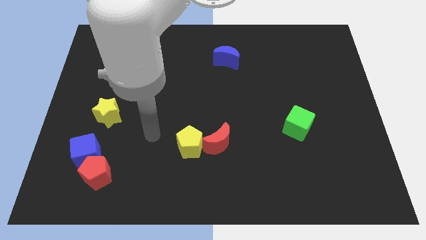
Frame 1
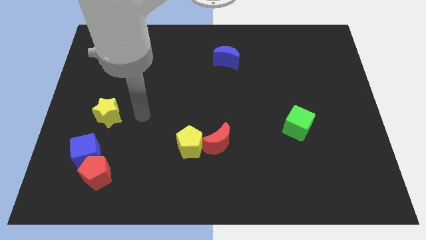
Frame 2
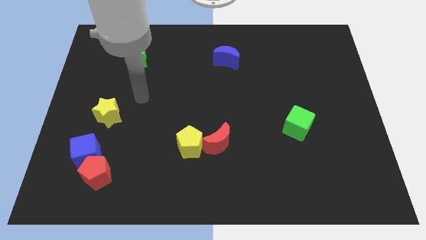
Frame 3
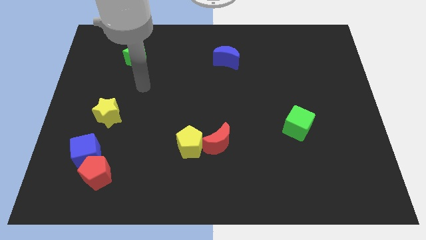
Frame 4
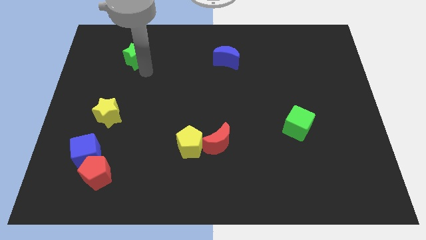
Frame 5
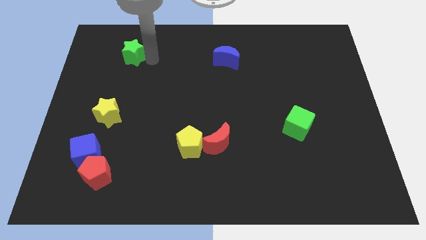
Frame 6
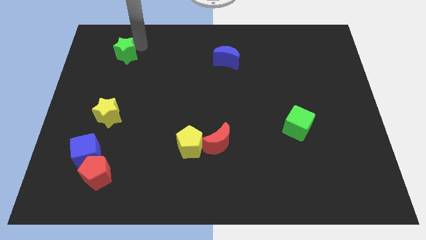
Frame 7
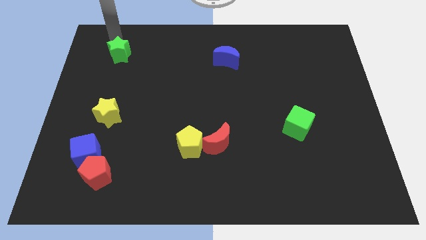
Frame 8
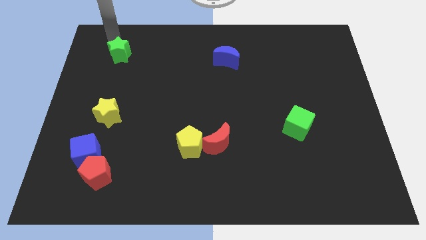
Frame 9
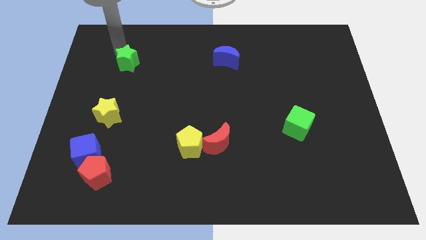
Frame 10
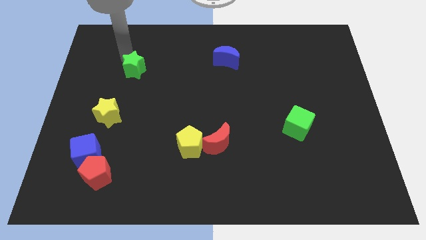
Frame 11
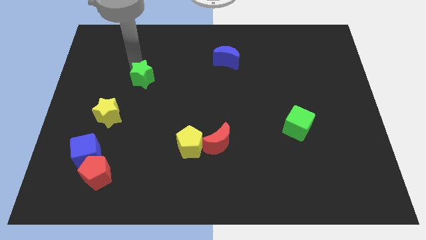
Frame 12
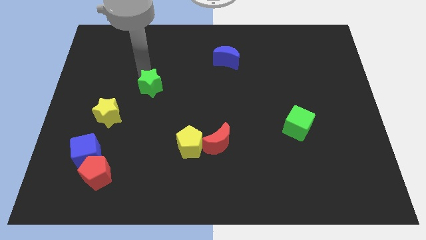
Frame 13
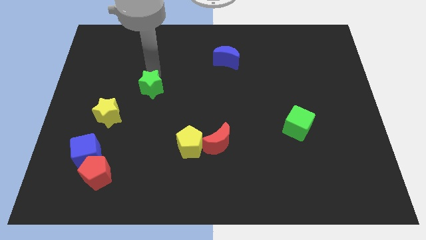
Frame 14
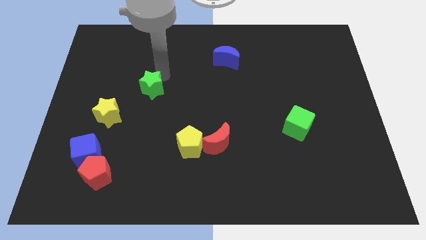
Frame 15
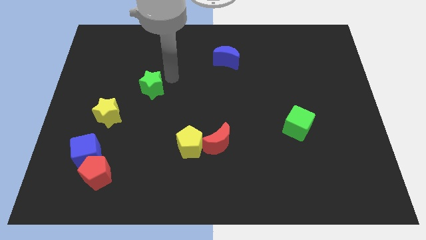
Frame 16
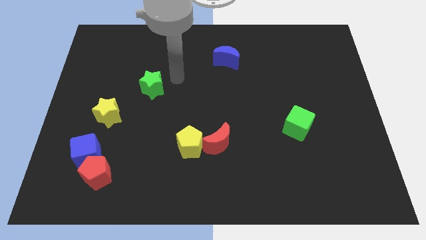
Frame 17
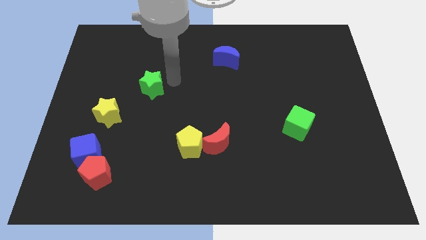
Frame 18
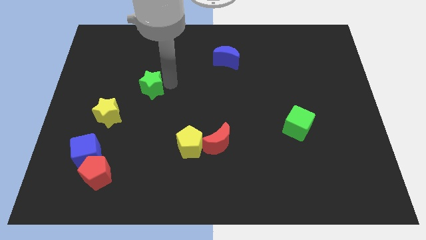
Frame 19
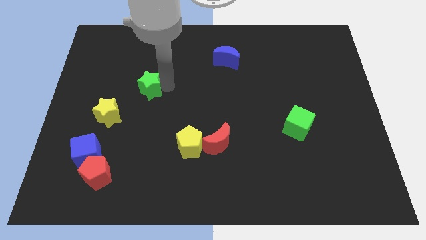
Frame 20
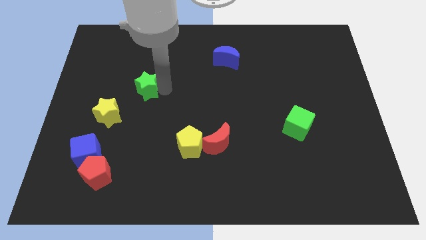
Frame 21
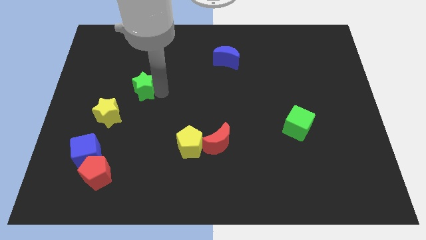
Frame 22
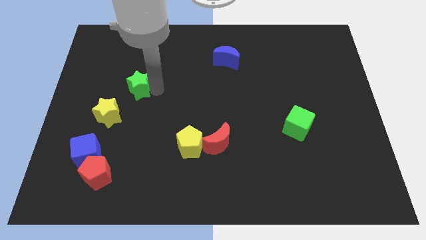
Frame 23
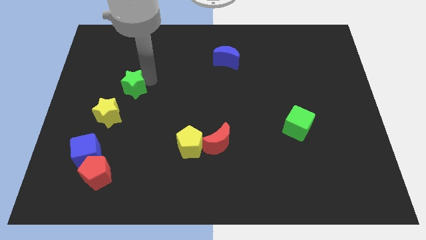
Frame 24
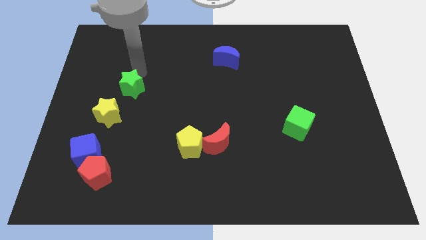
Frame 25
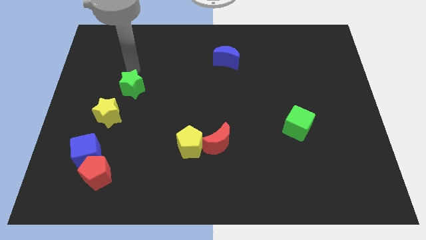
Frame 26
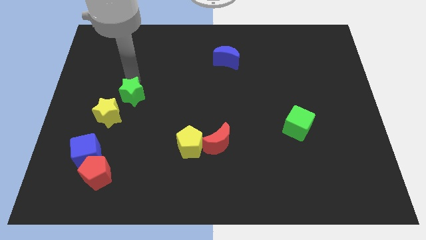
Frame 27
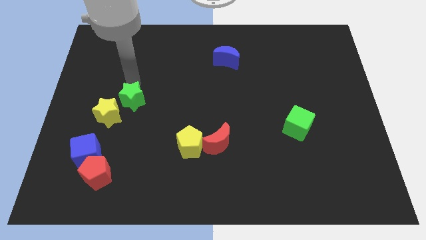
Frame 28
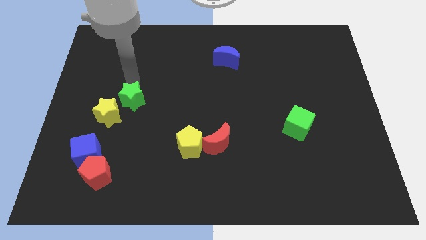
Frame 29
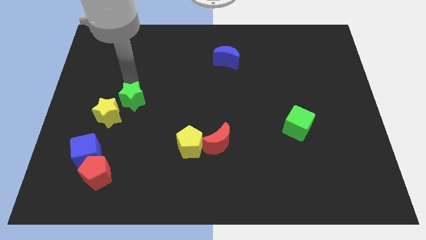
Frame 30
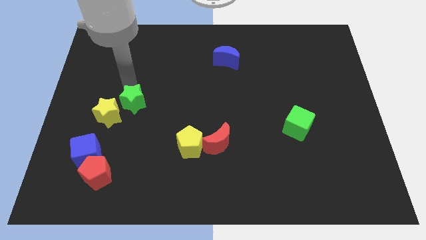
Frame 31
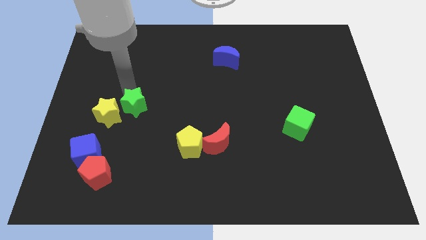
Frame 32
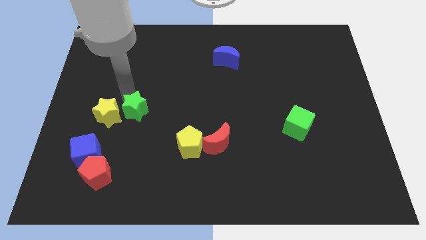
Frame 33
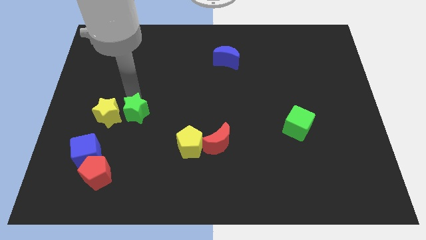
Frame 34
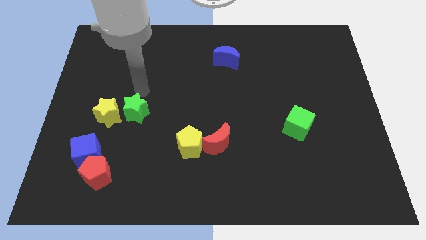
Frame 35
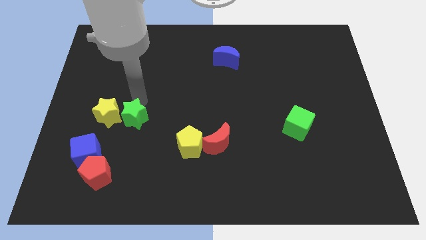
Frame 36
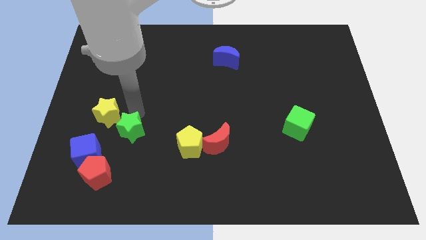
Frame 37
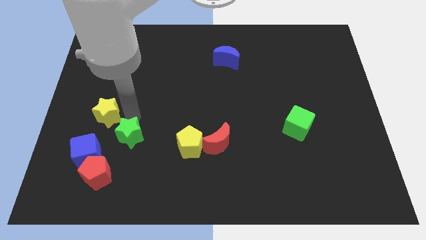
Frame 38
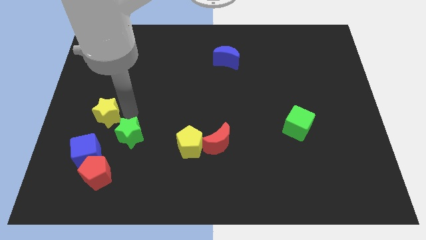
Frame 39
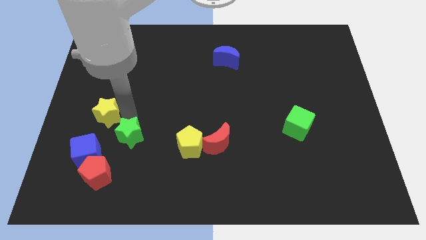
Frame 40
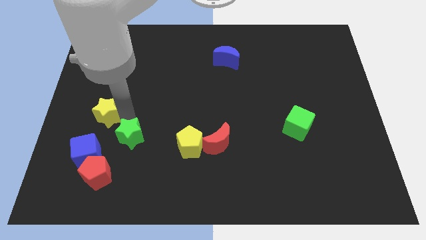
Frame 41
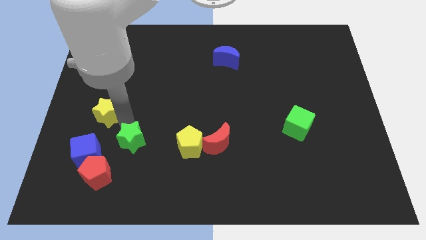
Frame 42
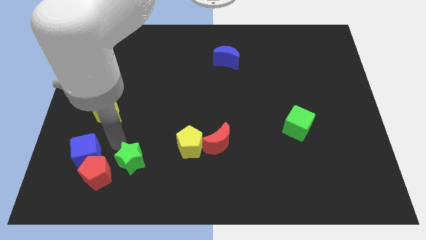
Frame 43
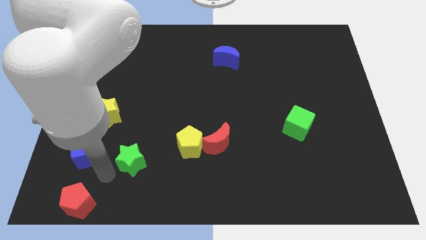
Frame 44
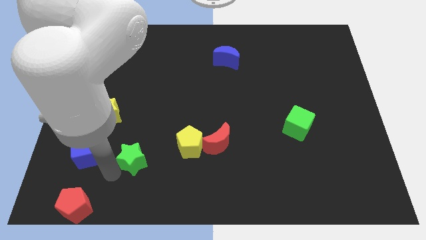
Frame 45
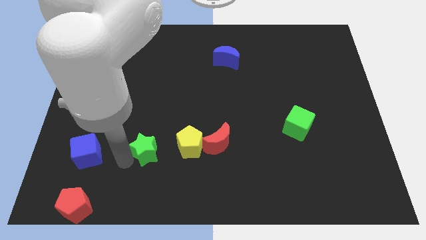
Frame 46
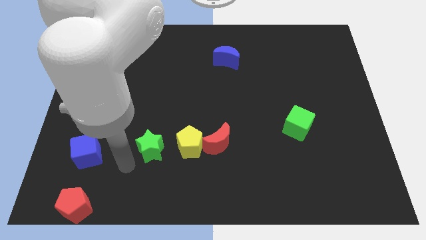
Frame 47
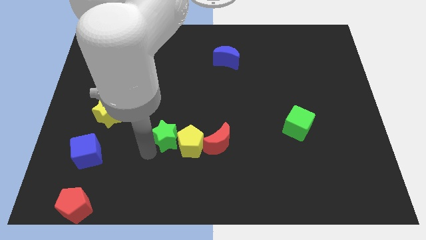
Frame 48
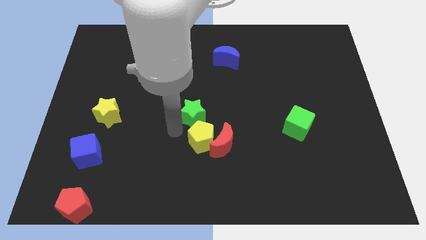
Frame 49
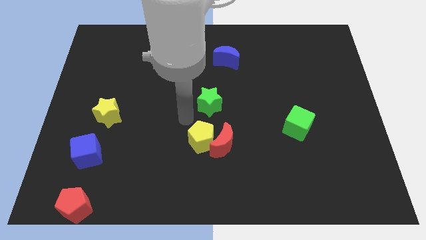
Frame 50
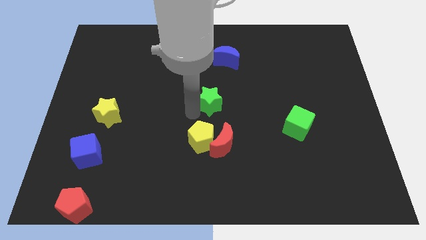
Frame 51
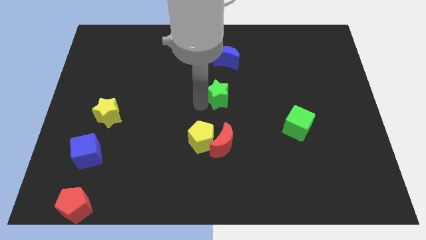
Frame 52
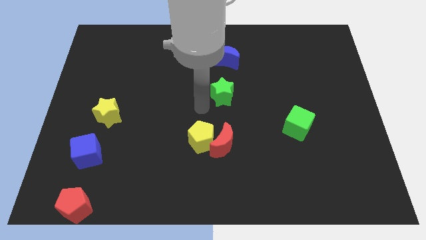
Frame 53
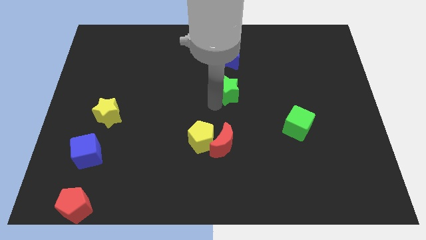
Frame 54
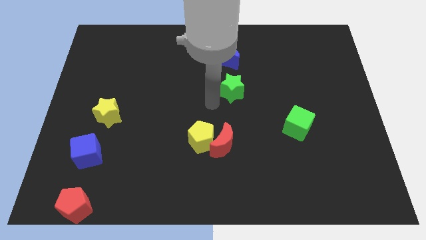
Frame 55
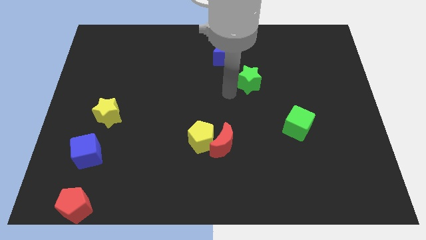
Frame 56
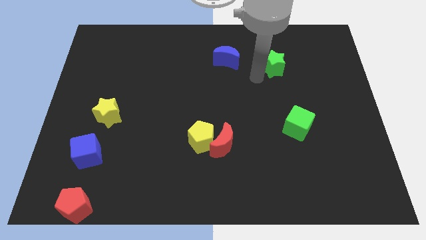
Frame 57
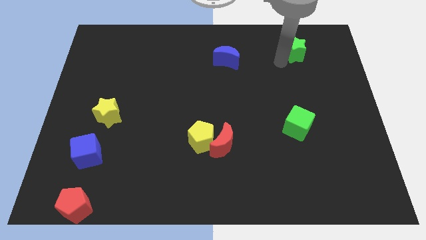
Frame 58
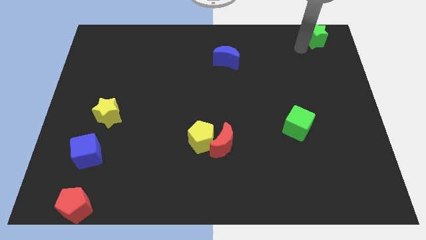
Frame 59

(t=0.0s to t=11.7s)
move the green star to the top right

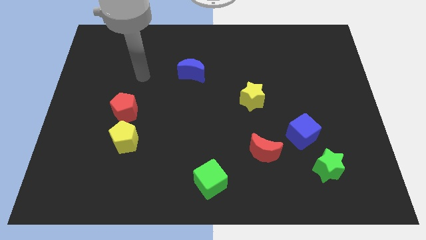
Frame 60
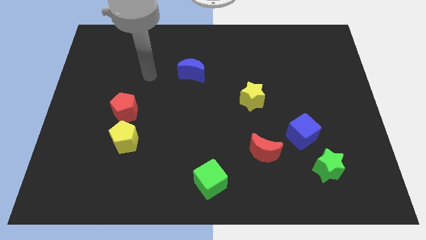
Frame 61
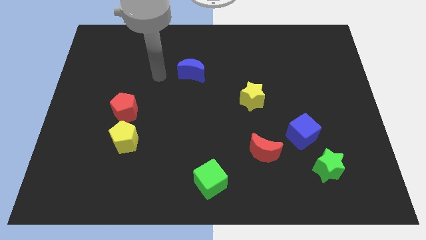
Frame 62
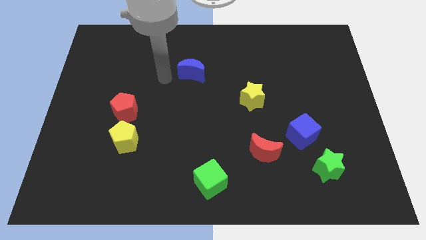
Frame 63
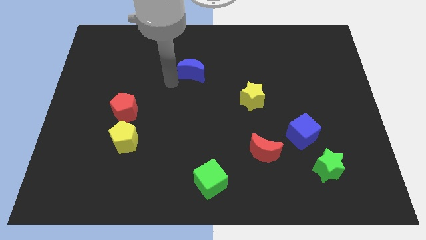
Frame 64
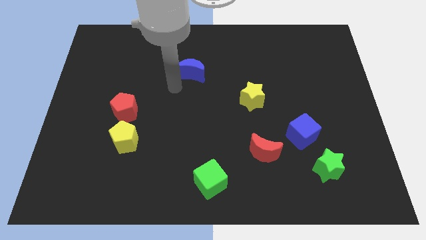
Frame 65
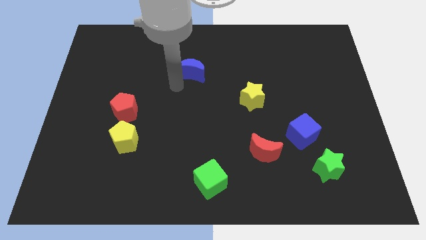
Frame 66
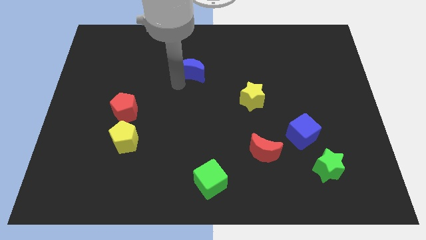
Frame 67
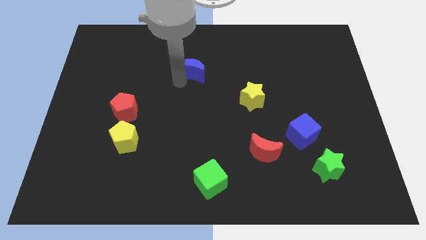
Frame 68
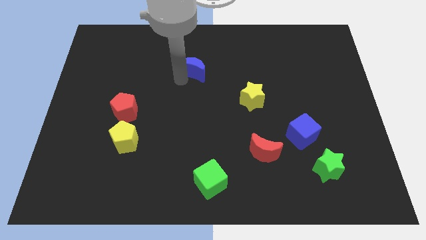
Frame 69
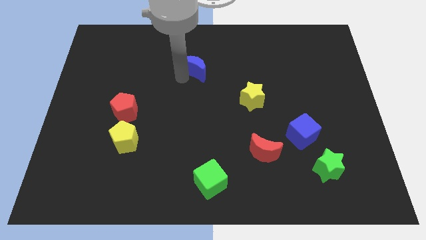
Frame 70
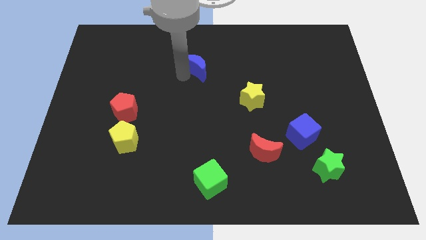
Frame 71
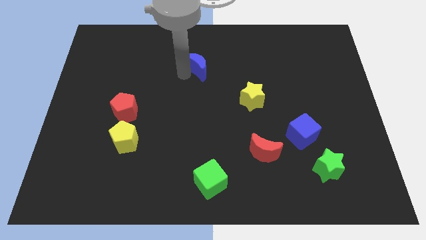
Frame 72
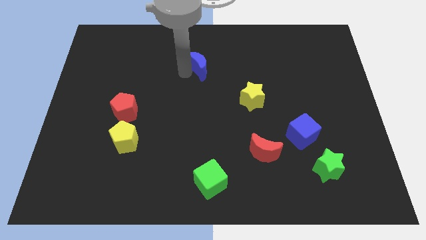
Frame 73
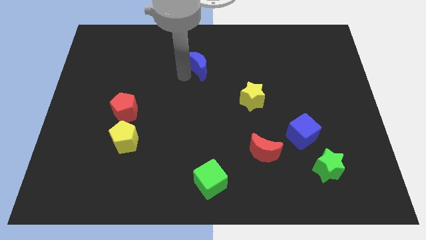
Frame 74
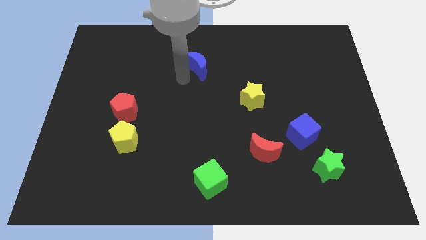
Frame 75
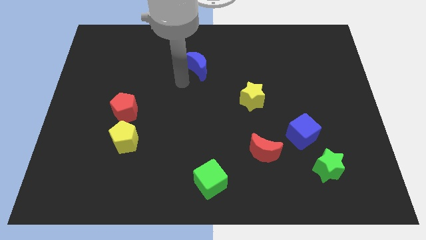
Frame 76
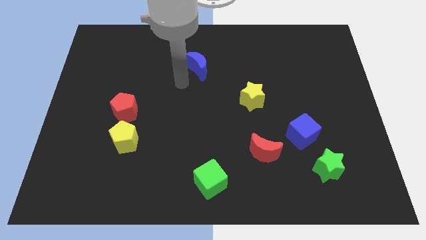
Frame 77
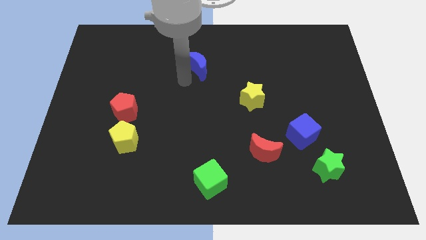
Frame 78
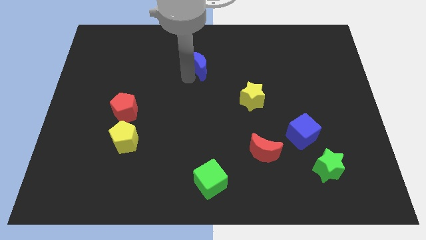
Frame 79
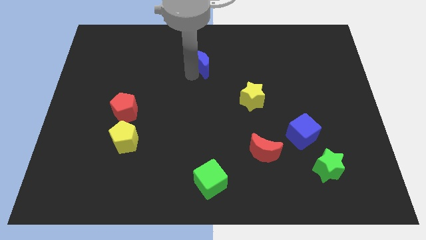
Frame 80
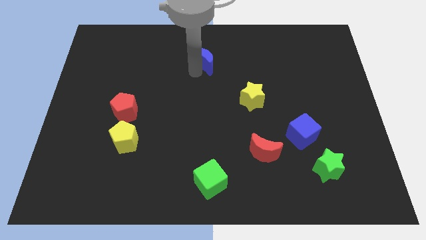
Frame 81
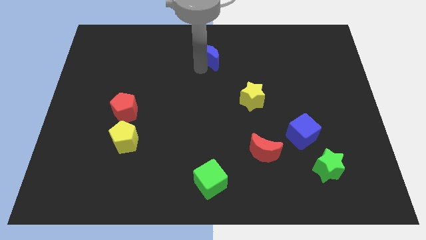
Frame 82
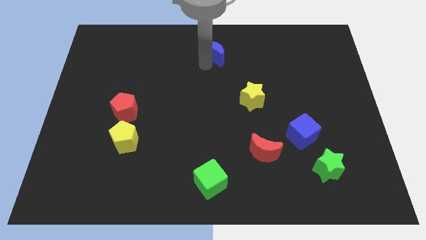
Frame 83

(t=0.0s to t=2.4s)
move the blue moon to the top side
